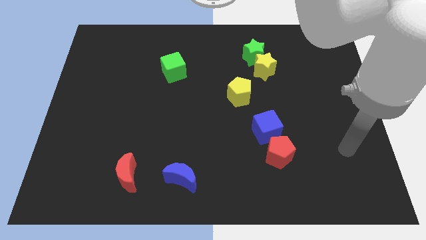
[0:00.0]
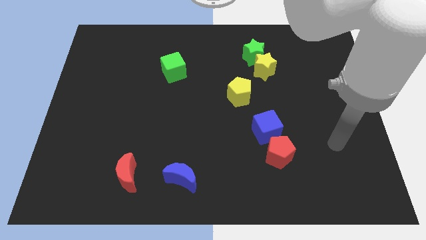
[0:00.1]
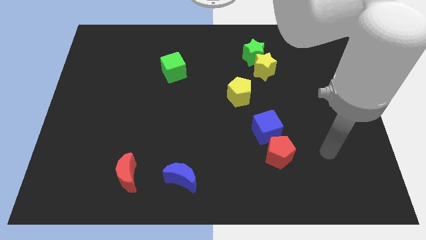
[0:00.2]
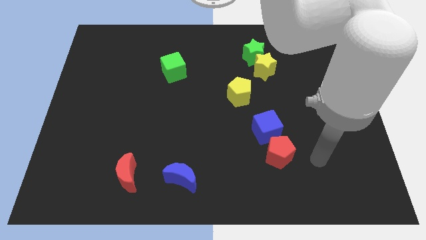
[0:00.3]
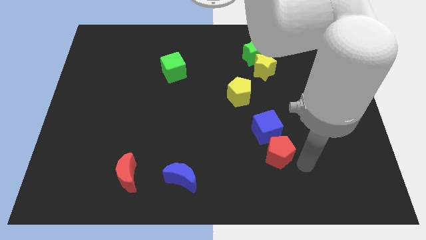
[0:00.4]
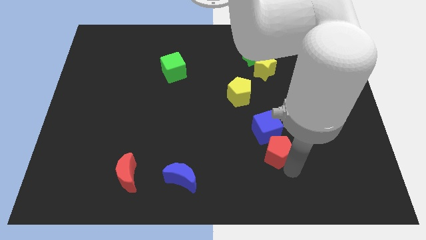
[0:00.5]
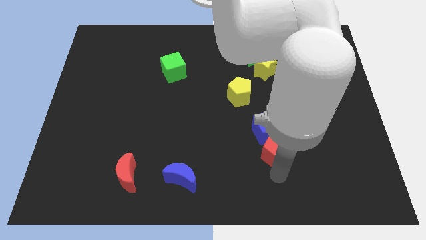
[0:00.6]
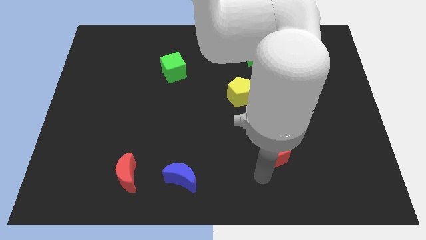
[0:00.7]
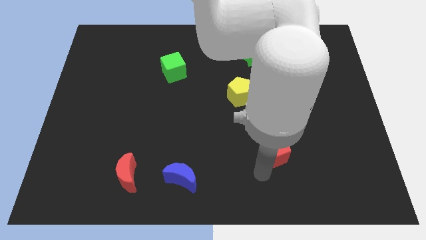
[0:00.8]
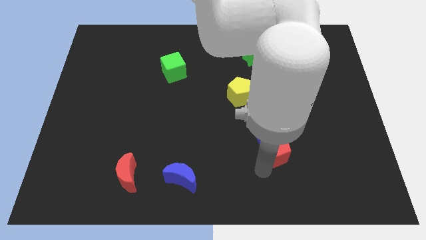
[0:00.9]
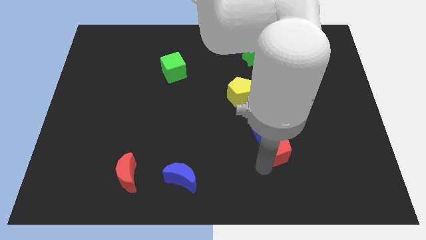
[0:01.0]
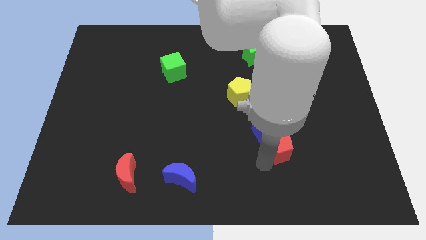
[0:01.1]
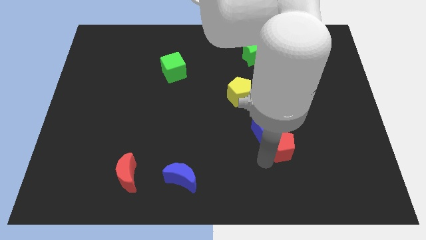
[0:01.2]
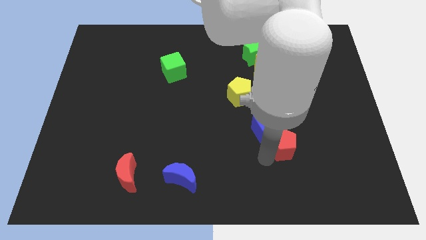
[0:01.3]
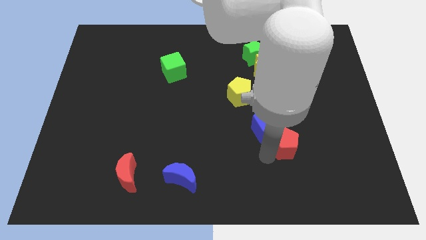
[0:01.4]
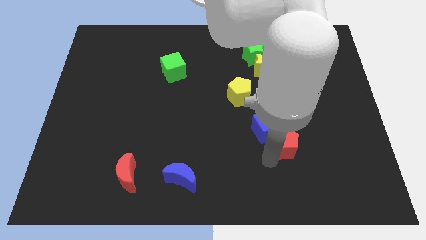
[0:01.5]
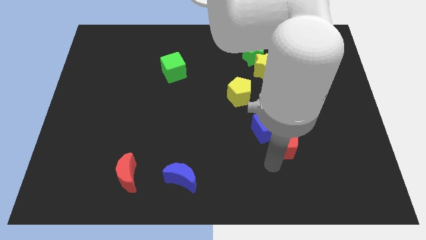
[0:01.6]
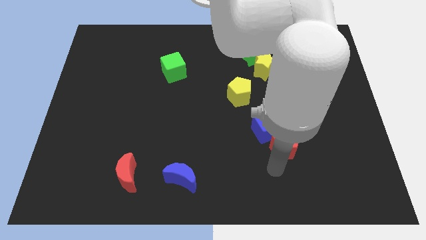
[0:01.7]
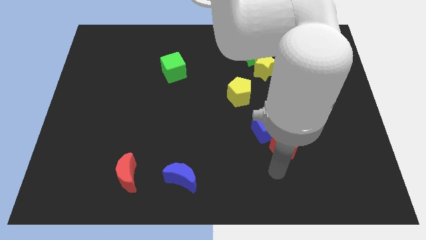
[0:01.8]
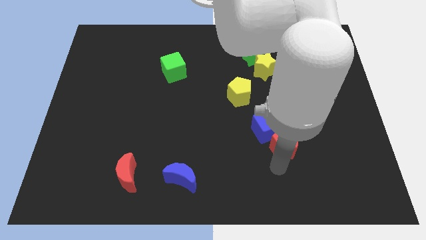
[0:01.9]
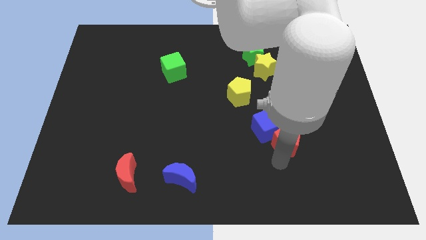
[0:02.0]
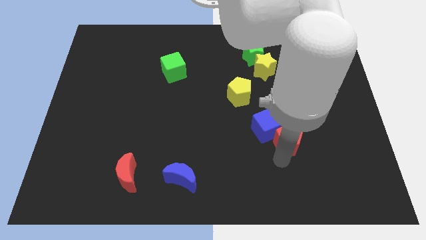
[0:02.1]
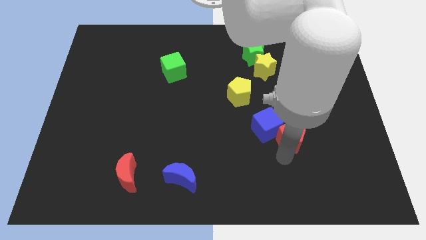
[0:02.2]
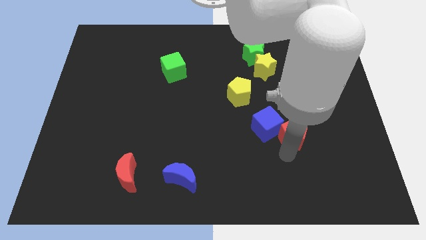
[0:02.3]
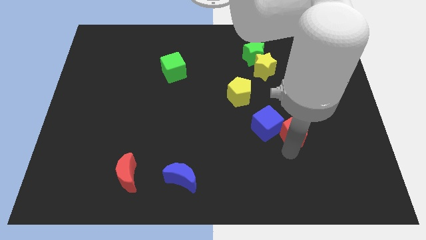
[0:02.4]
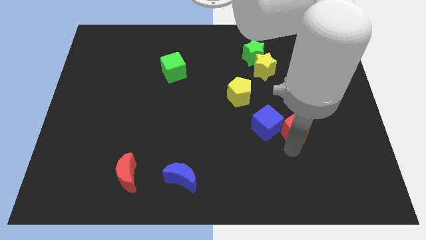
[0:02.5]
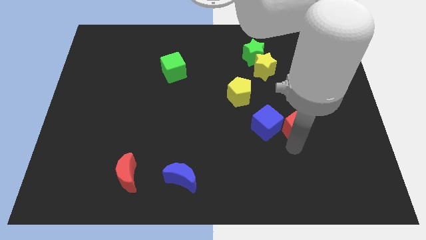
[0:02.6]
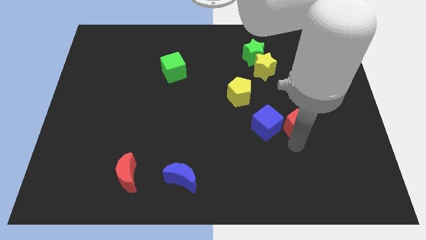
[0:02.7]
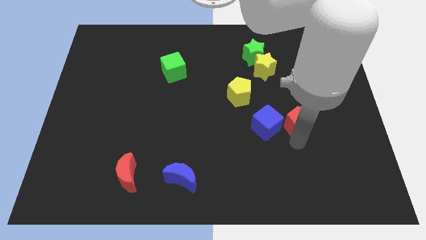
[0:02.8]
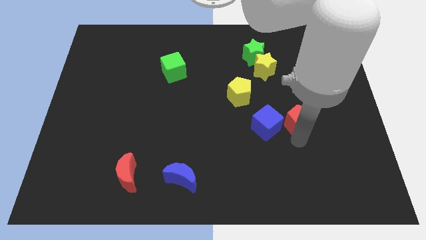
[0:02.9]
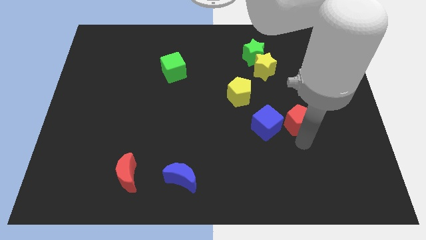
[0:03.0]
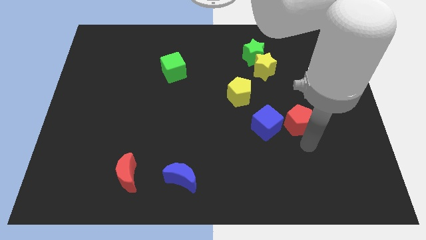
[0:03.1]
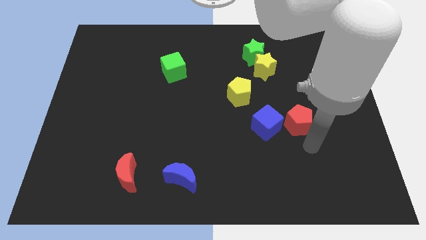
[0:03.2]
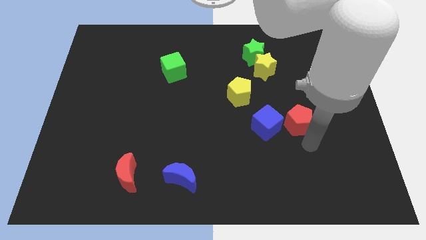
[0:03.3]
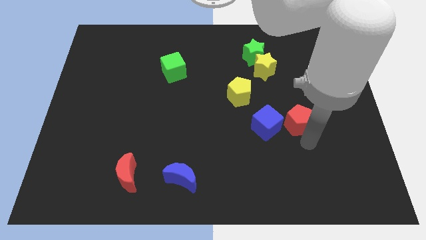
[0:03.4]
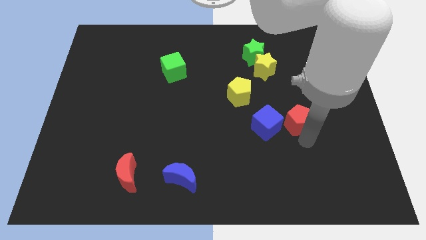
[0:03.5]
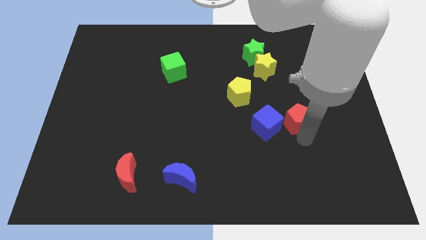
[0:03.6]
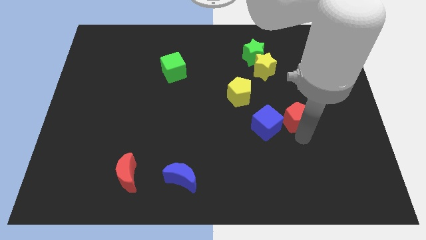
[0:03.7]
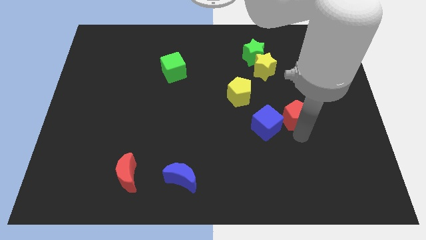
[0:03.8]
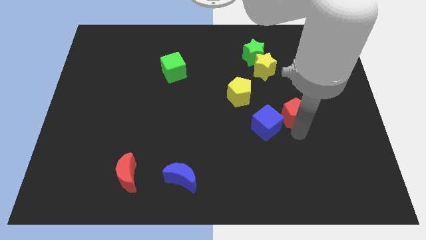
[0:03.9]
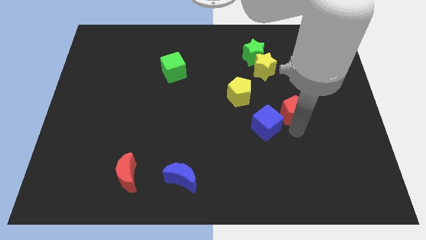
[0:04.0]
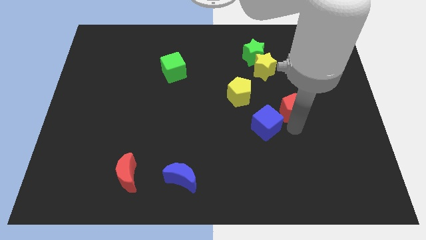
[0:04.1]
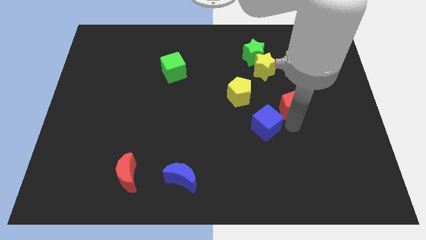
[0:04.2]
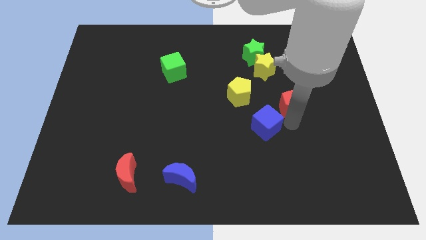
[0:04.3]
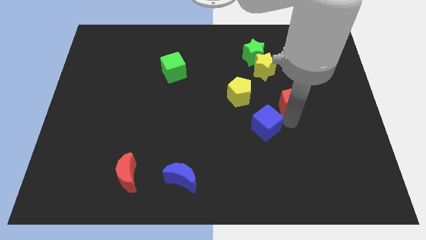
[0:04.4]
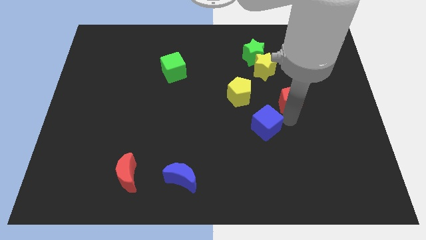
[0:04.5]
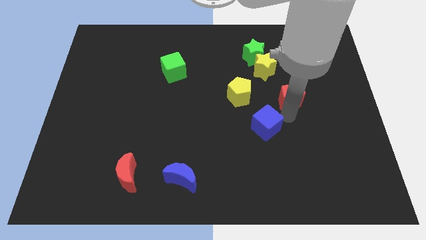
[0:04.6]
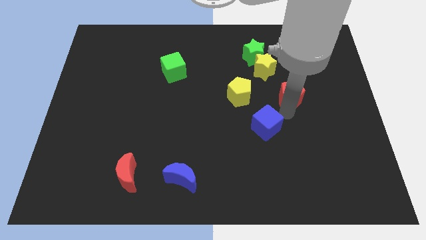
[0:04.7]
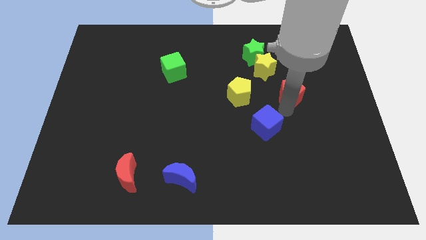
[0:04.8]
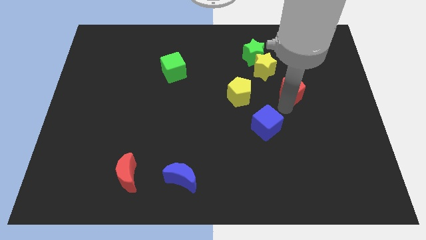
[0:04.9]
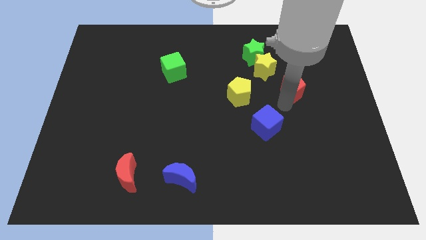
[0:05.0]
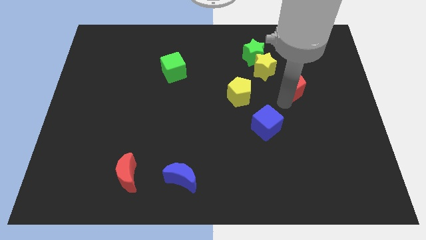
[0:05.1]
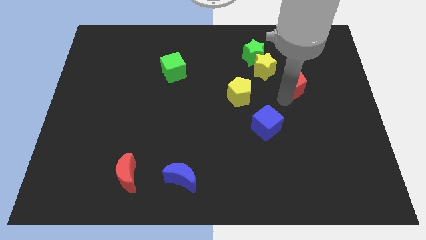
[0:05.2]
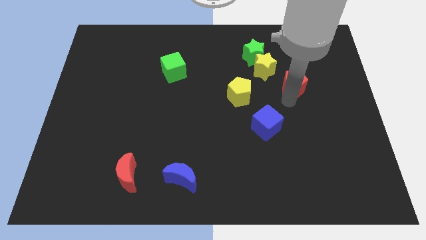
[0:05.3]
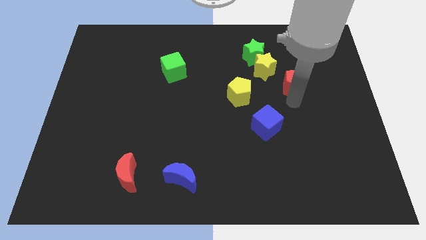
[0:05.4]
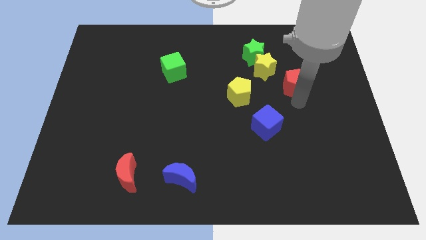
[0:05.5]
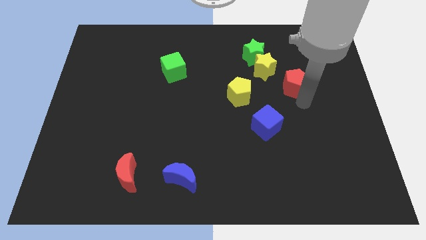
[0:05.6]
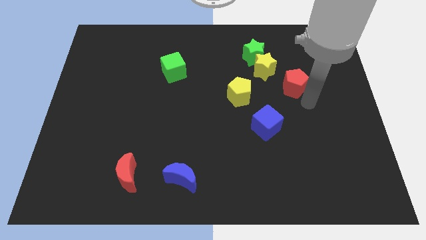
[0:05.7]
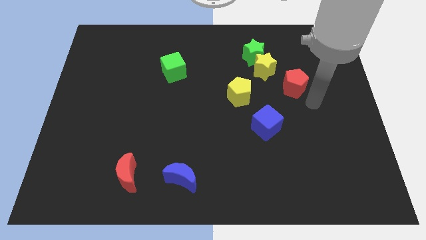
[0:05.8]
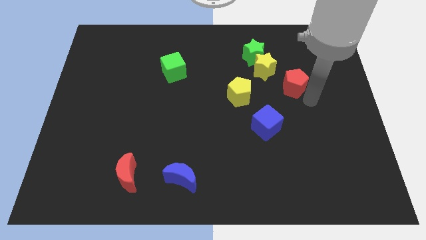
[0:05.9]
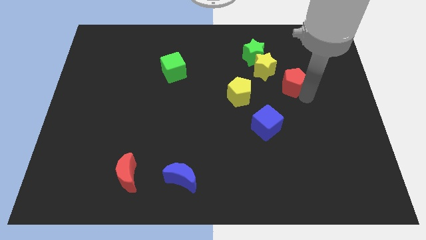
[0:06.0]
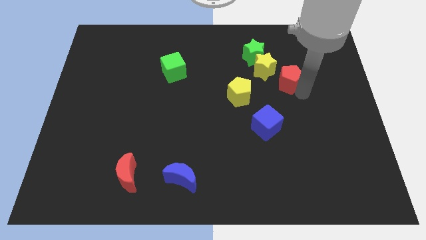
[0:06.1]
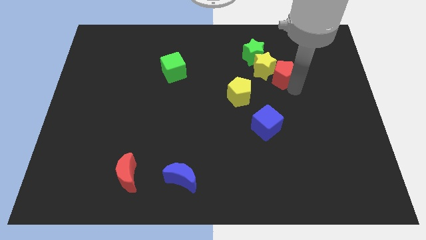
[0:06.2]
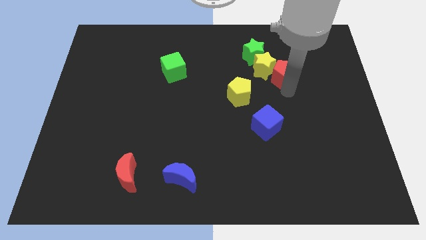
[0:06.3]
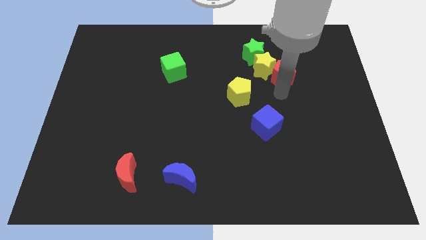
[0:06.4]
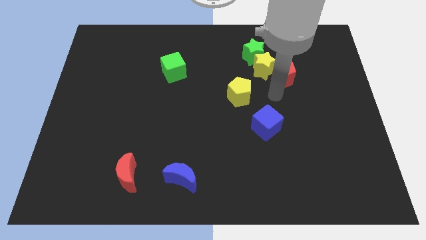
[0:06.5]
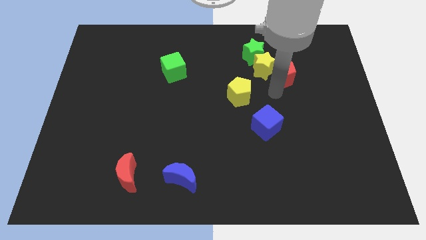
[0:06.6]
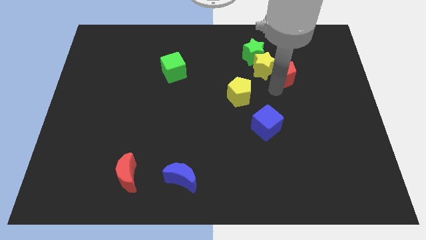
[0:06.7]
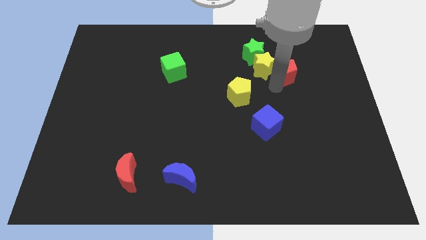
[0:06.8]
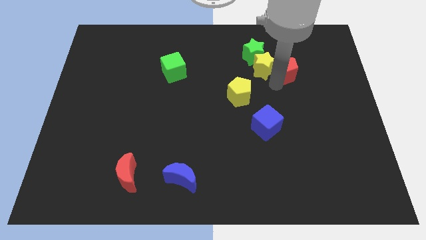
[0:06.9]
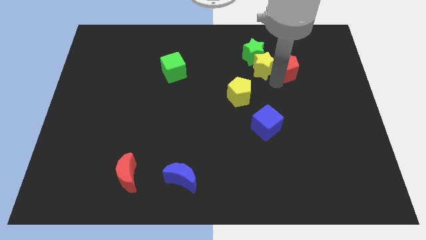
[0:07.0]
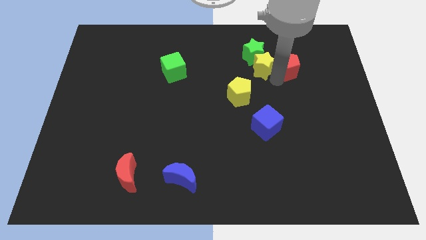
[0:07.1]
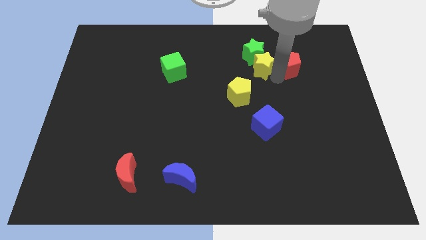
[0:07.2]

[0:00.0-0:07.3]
move the red pentagon to the right of the green star
